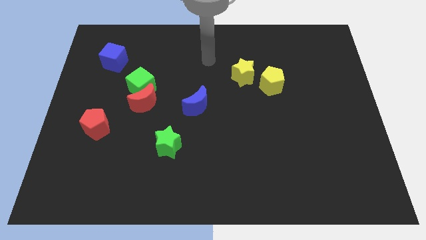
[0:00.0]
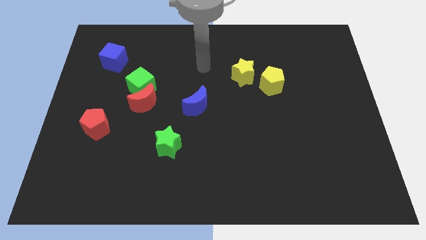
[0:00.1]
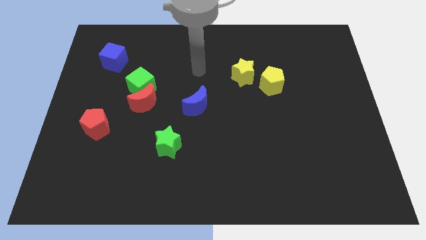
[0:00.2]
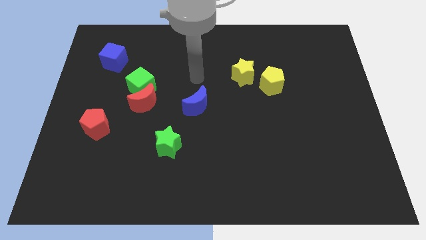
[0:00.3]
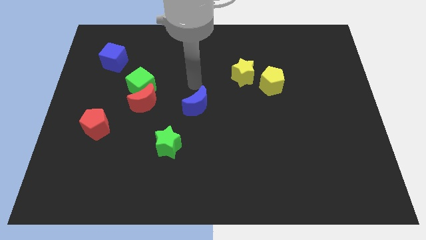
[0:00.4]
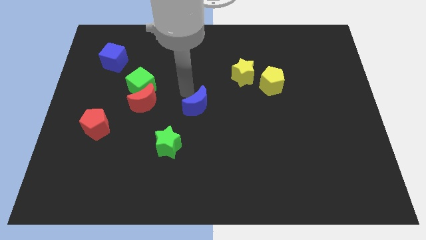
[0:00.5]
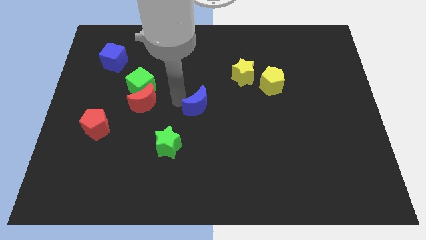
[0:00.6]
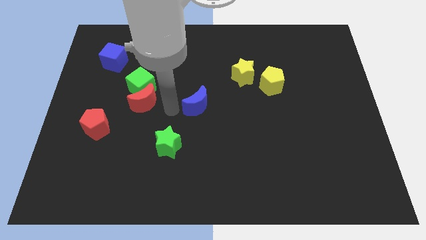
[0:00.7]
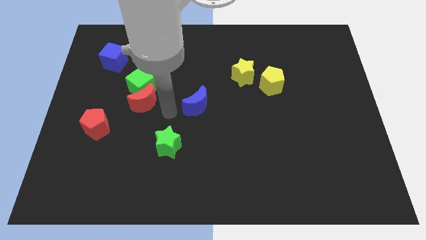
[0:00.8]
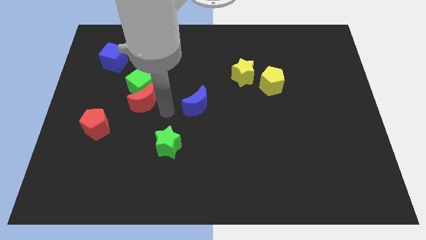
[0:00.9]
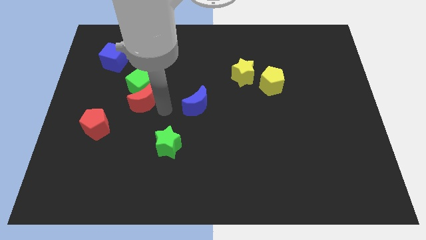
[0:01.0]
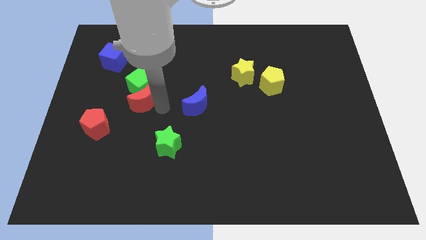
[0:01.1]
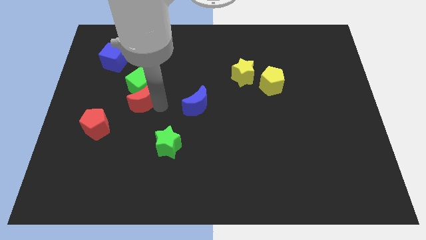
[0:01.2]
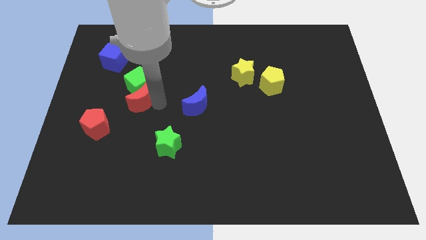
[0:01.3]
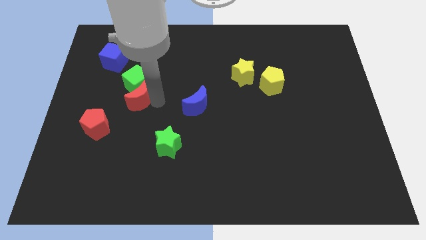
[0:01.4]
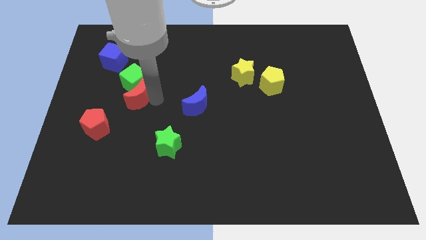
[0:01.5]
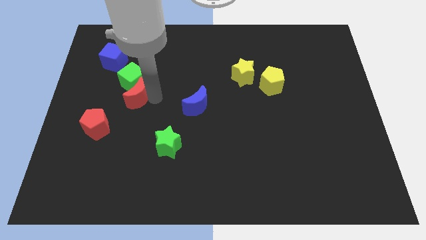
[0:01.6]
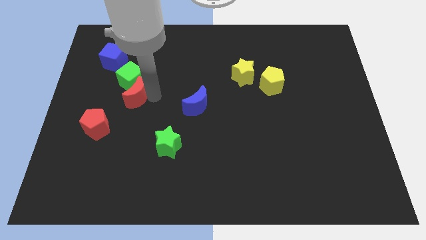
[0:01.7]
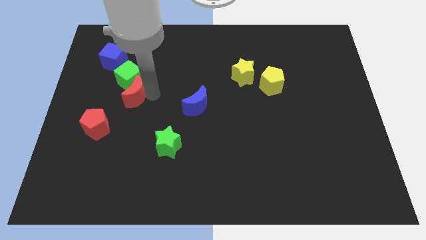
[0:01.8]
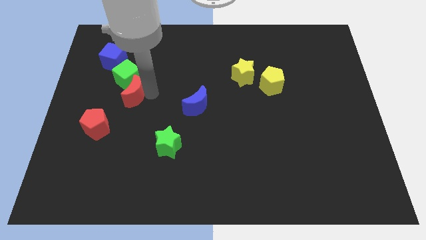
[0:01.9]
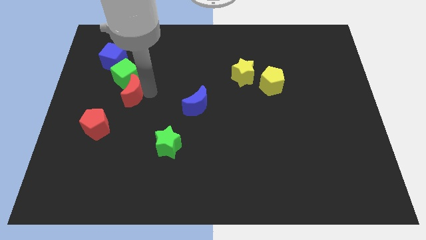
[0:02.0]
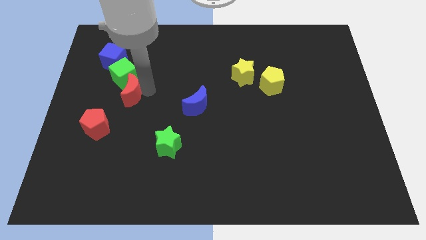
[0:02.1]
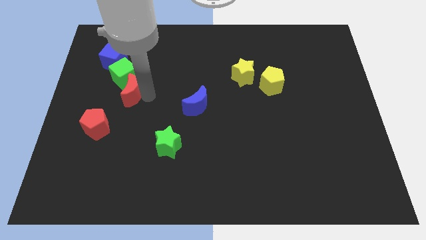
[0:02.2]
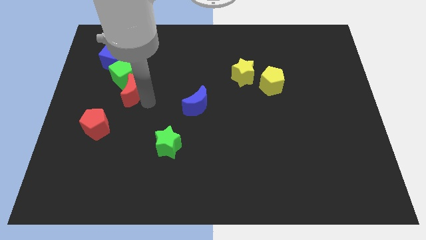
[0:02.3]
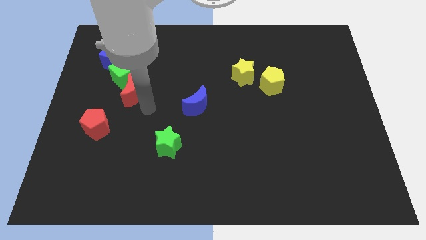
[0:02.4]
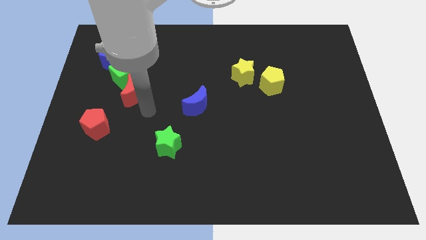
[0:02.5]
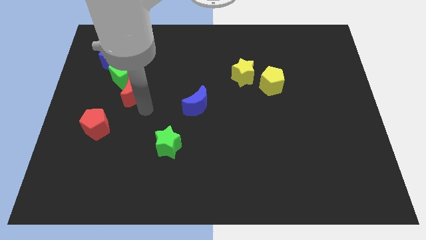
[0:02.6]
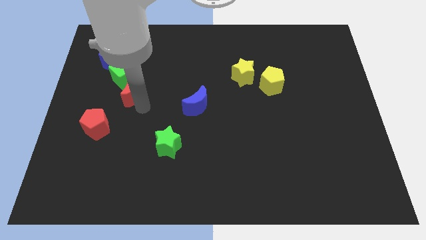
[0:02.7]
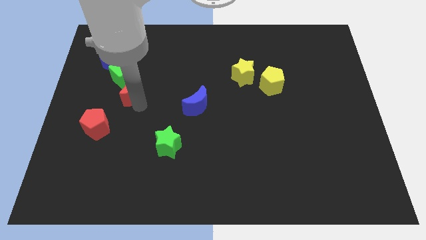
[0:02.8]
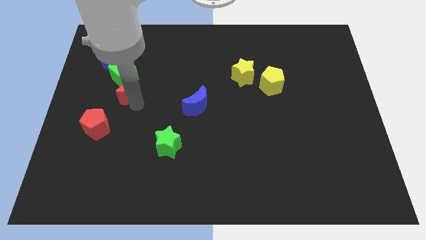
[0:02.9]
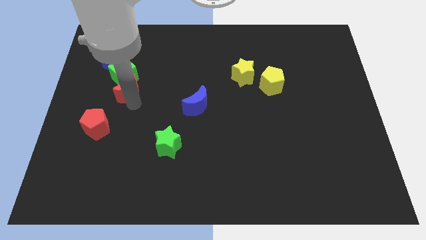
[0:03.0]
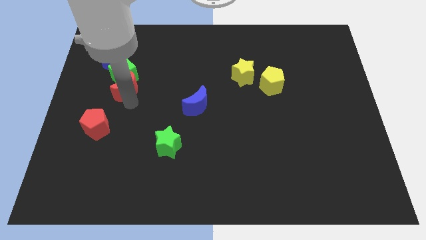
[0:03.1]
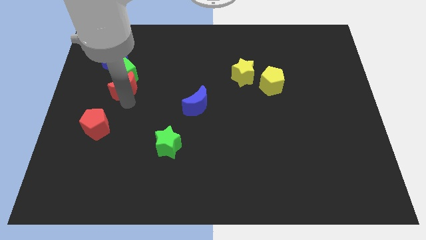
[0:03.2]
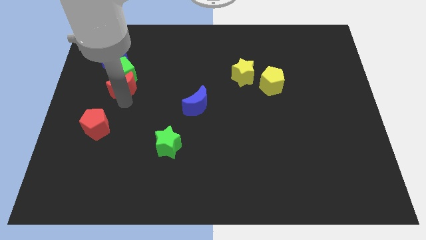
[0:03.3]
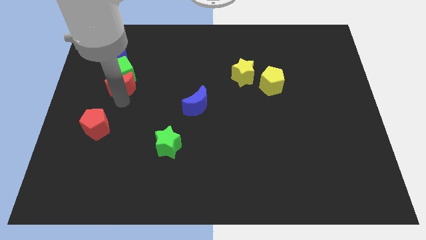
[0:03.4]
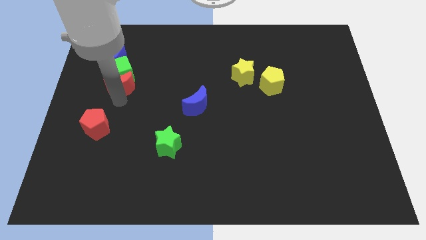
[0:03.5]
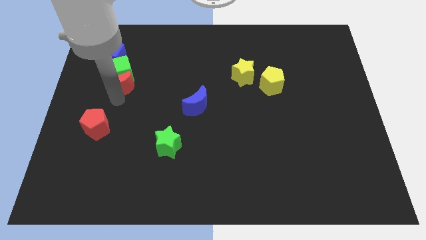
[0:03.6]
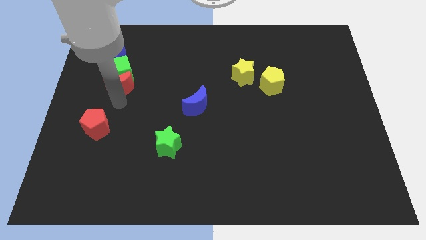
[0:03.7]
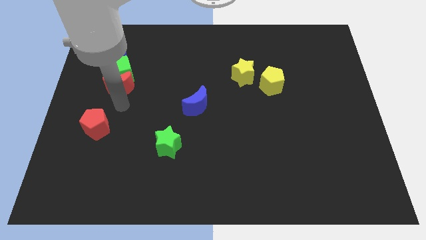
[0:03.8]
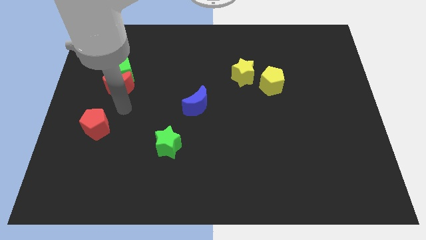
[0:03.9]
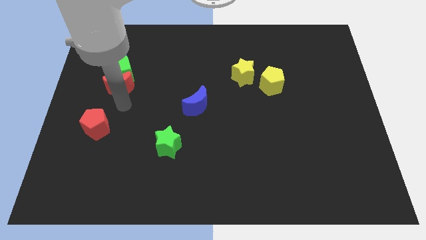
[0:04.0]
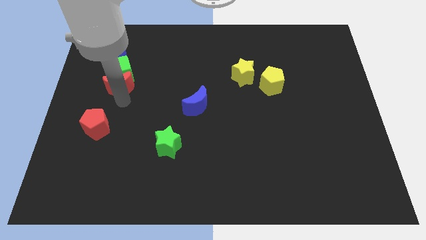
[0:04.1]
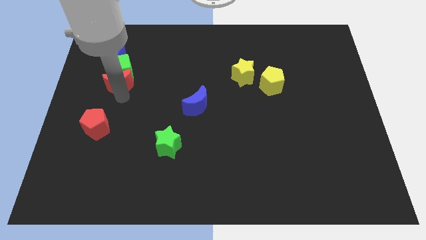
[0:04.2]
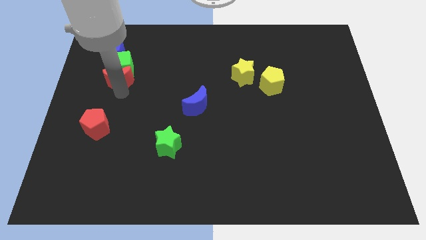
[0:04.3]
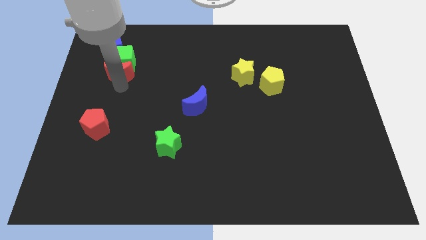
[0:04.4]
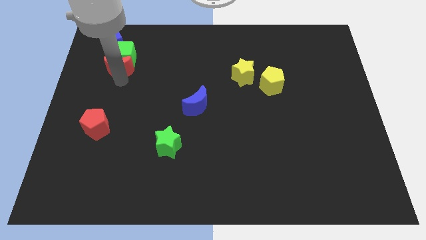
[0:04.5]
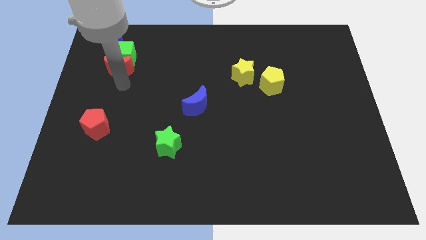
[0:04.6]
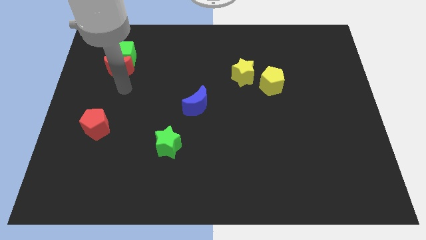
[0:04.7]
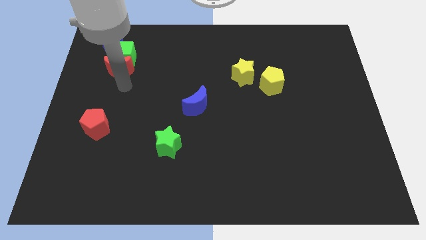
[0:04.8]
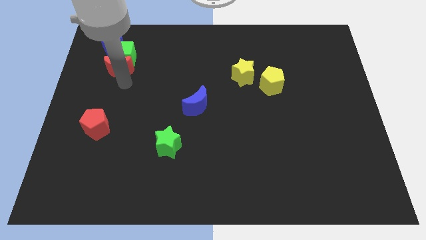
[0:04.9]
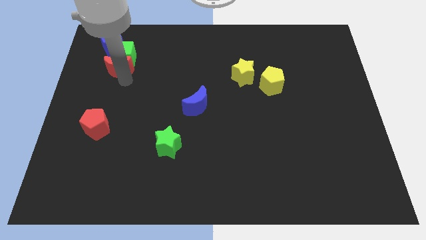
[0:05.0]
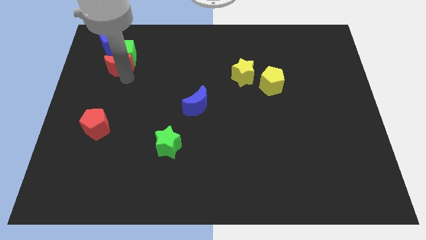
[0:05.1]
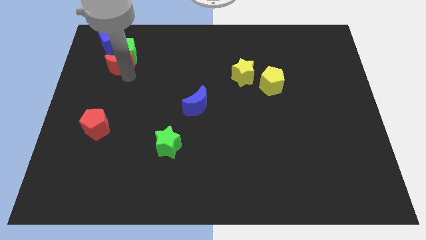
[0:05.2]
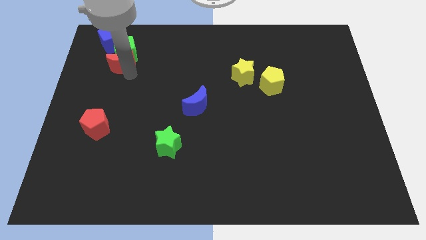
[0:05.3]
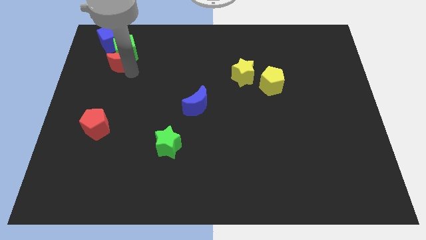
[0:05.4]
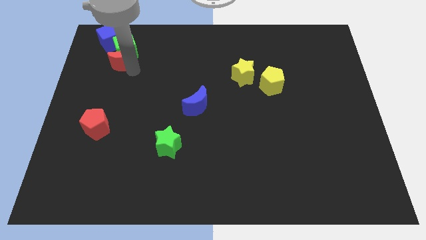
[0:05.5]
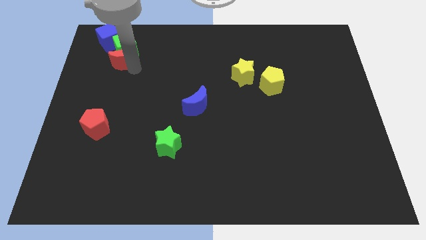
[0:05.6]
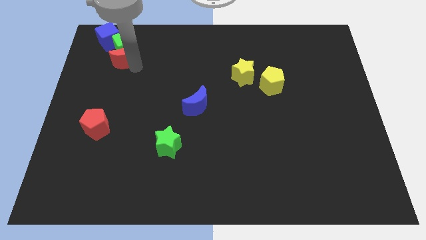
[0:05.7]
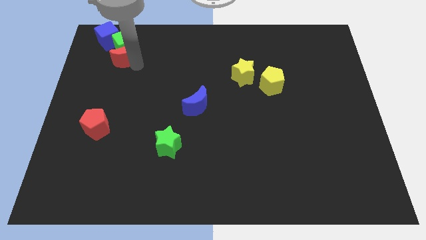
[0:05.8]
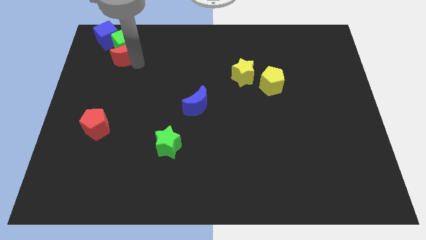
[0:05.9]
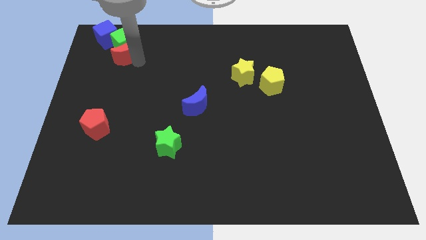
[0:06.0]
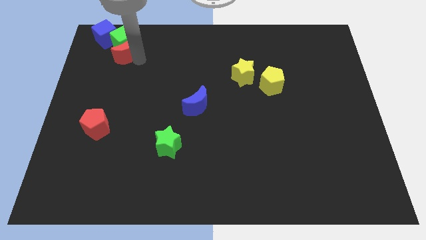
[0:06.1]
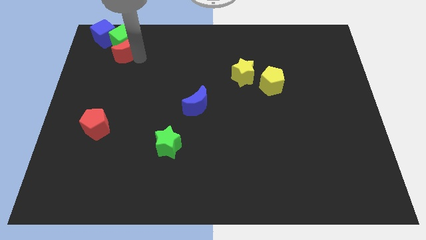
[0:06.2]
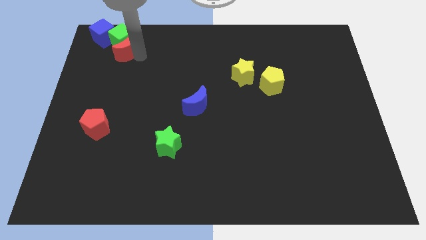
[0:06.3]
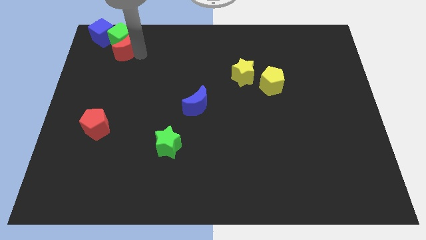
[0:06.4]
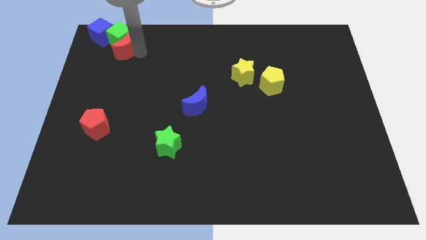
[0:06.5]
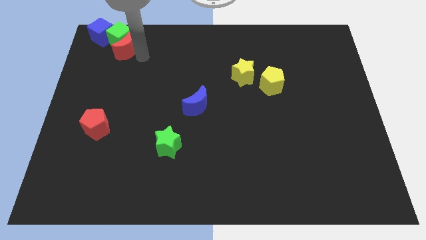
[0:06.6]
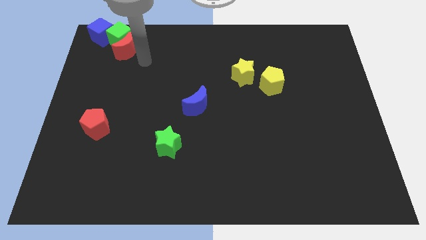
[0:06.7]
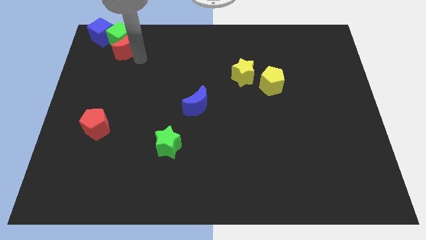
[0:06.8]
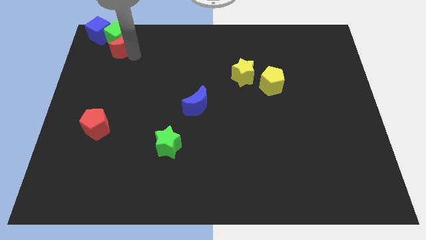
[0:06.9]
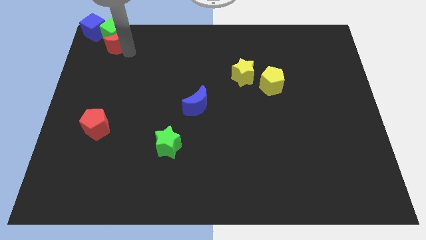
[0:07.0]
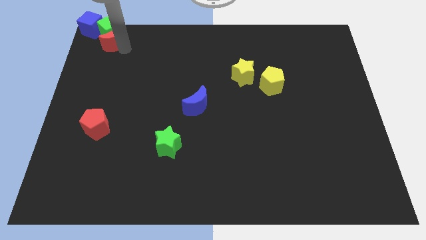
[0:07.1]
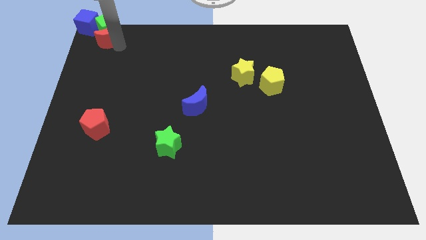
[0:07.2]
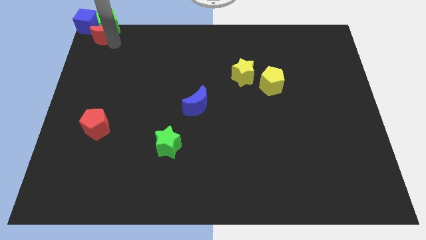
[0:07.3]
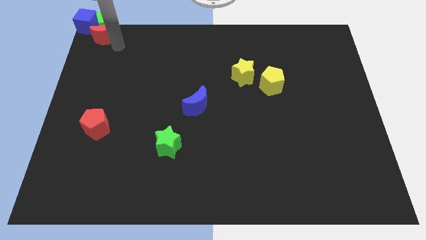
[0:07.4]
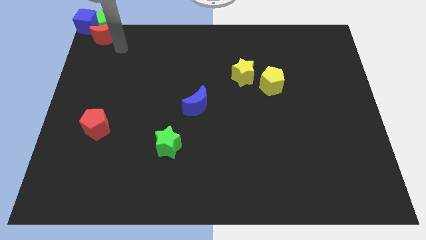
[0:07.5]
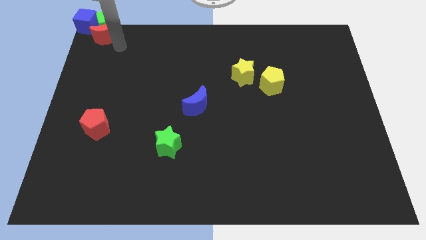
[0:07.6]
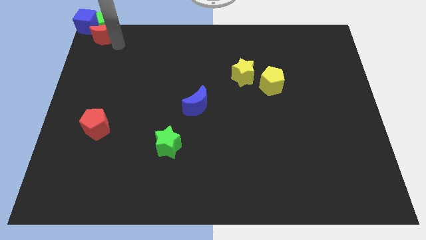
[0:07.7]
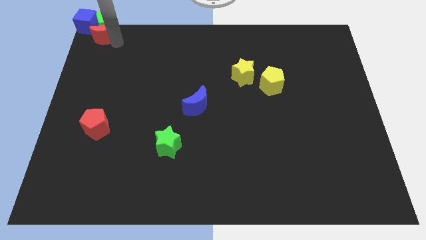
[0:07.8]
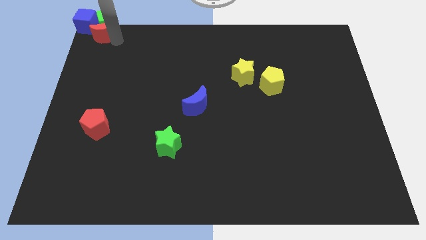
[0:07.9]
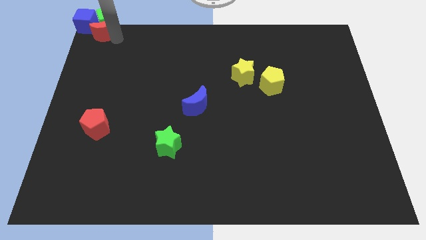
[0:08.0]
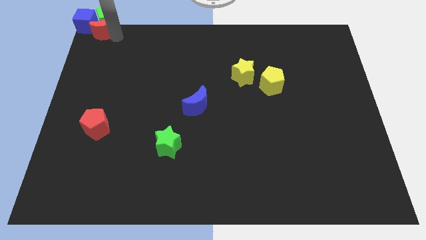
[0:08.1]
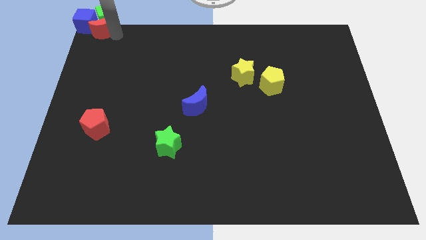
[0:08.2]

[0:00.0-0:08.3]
push the red moon next to the blue cube

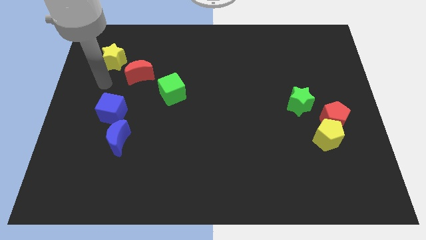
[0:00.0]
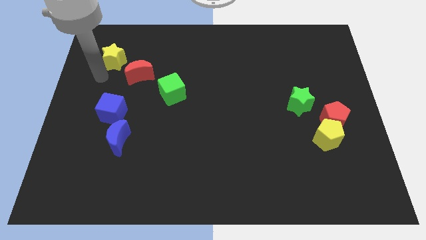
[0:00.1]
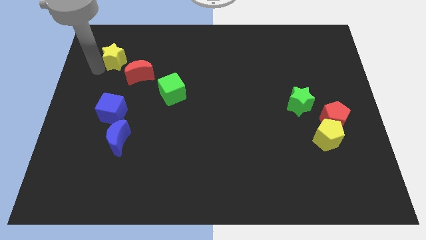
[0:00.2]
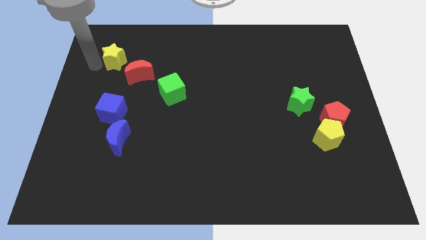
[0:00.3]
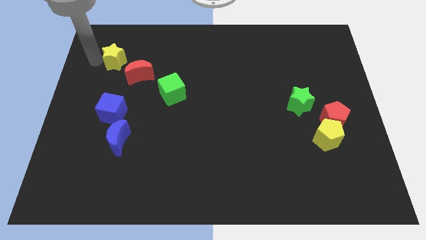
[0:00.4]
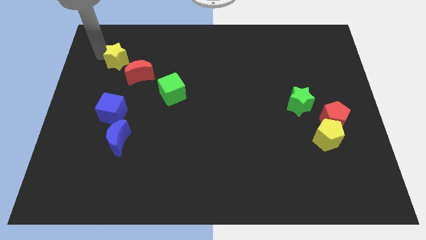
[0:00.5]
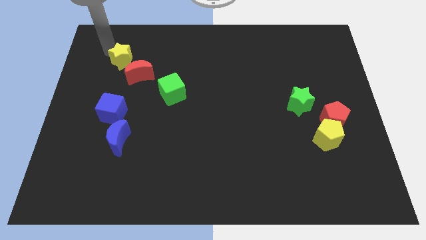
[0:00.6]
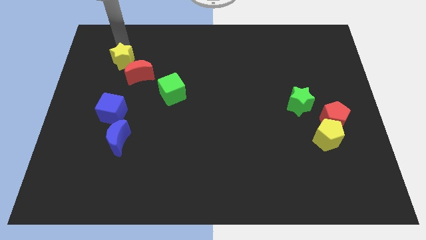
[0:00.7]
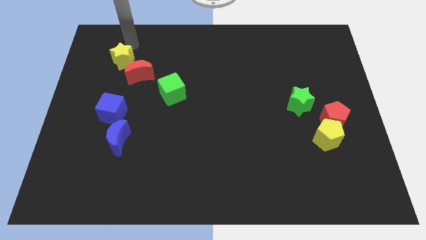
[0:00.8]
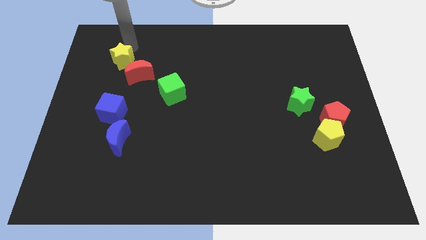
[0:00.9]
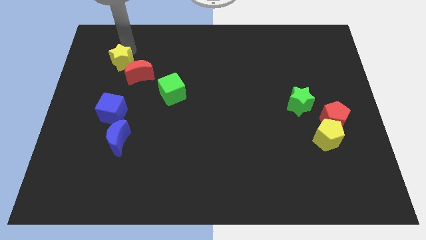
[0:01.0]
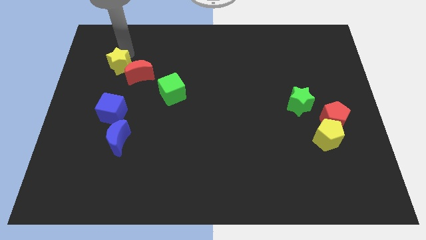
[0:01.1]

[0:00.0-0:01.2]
push the yellow star next to the red moon
